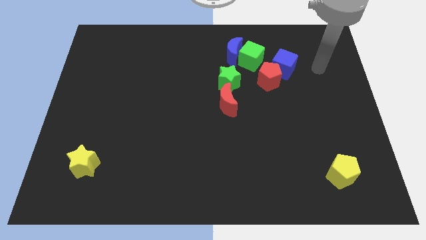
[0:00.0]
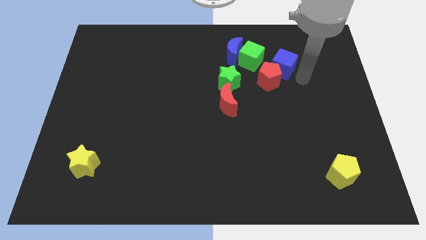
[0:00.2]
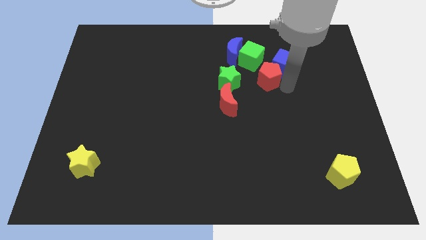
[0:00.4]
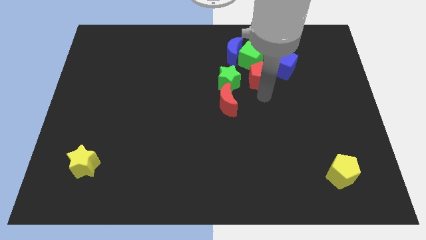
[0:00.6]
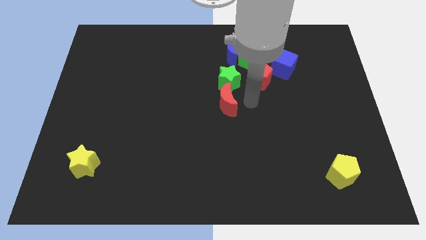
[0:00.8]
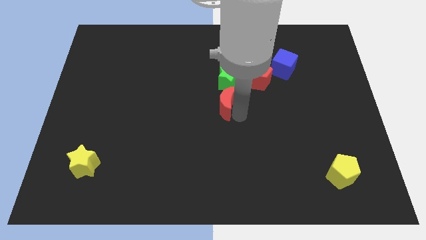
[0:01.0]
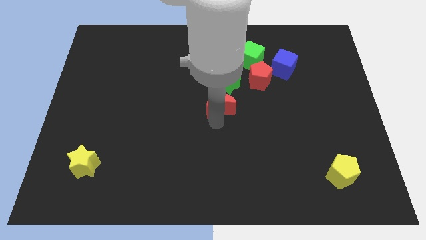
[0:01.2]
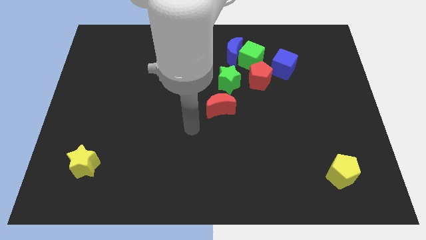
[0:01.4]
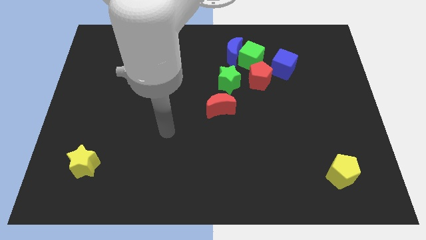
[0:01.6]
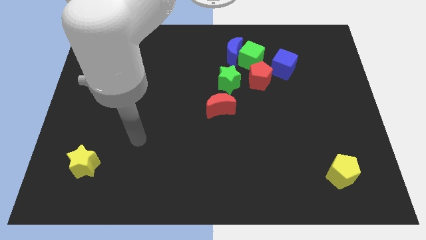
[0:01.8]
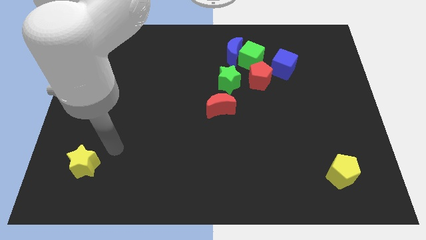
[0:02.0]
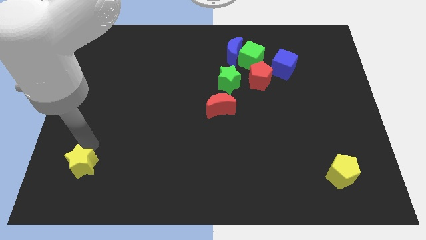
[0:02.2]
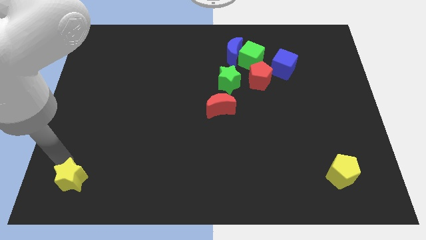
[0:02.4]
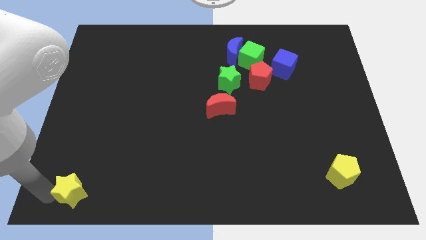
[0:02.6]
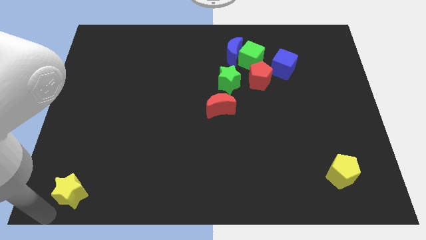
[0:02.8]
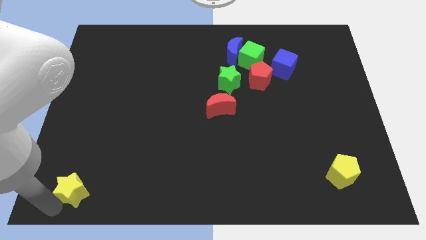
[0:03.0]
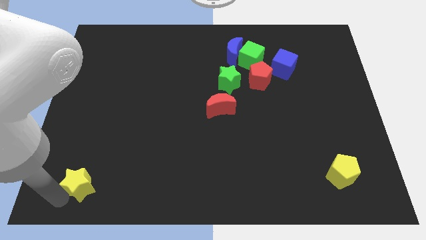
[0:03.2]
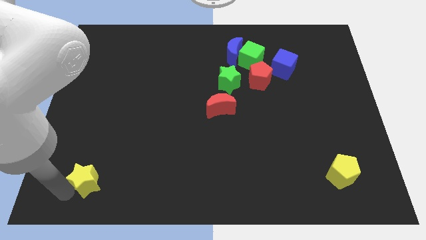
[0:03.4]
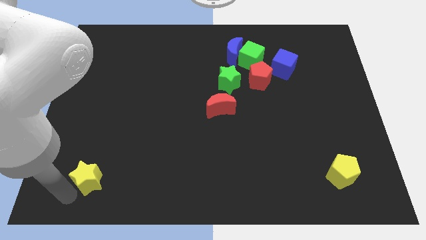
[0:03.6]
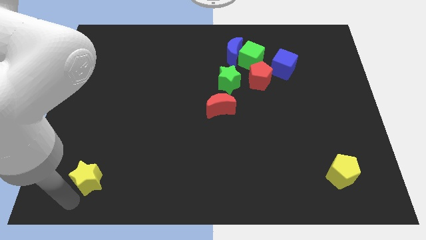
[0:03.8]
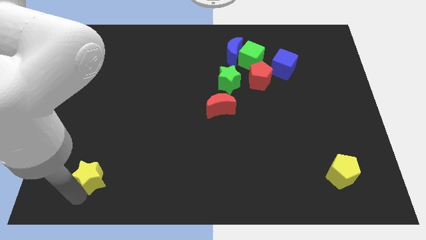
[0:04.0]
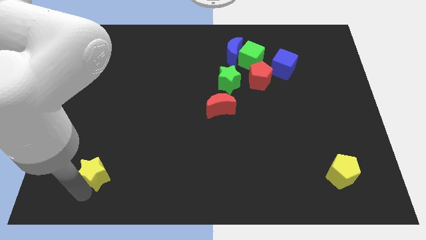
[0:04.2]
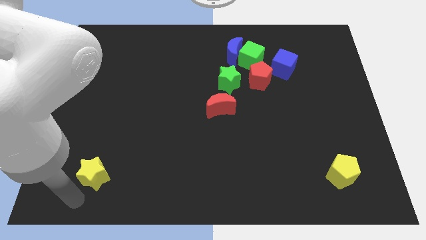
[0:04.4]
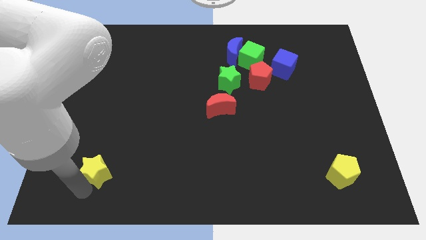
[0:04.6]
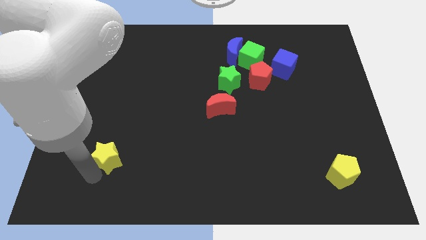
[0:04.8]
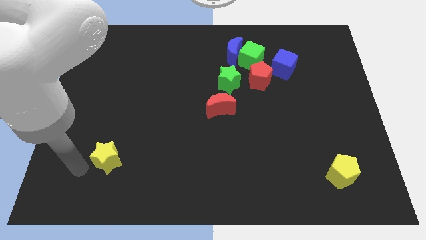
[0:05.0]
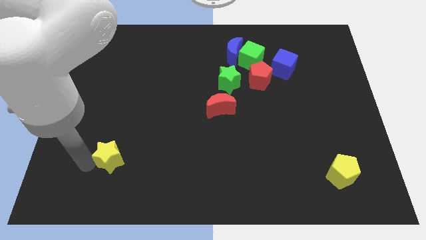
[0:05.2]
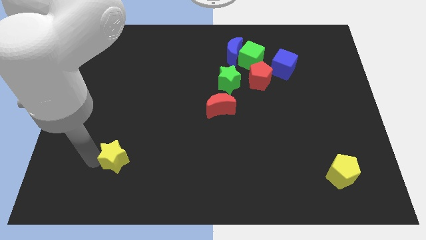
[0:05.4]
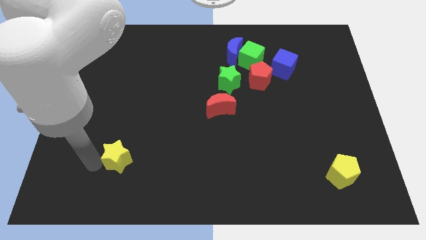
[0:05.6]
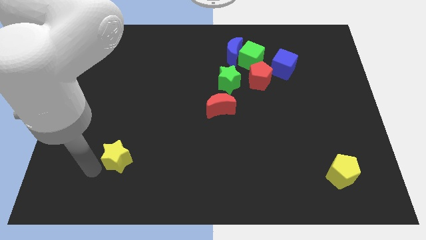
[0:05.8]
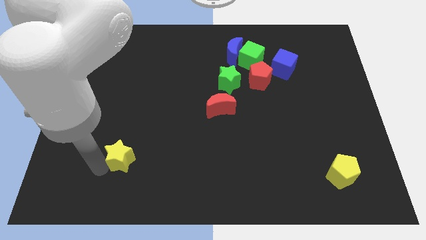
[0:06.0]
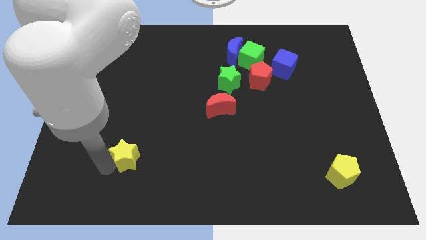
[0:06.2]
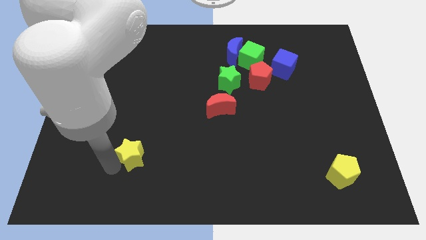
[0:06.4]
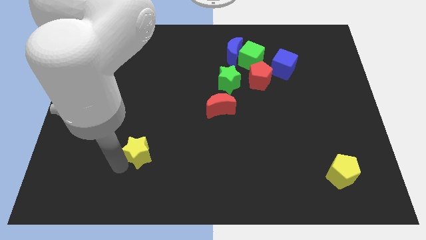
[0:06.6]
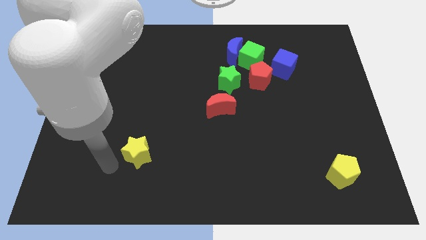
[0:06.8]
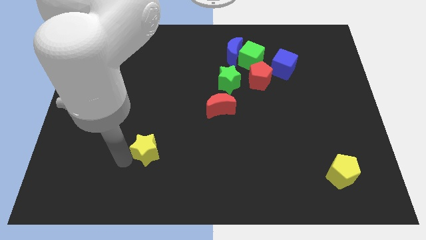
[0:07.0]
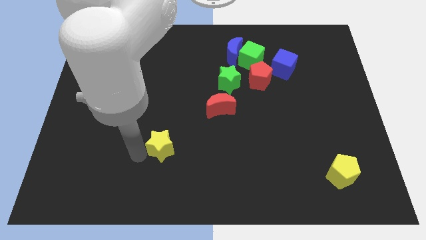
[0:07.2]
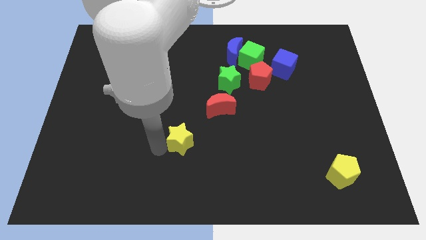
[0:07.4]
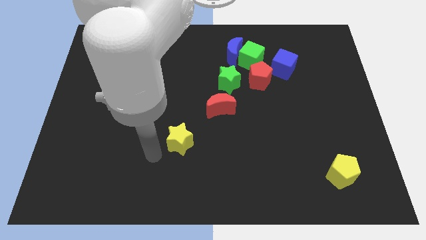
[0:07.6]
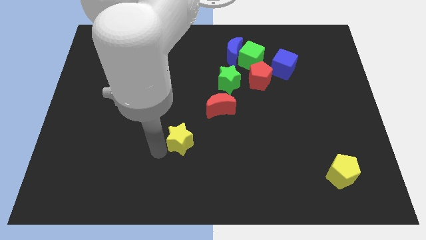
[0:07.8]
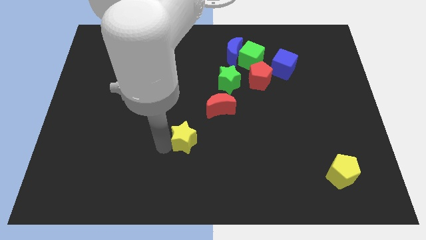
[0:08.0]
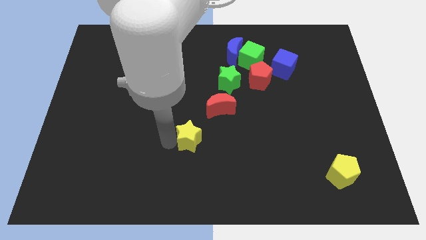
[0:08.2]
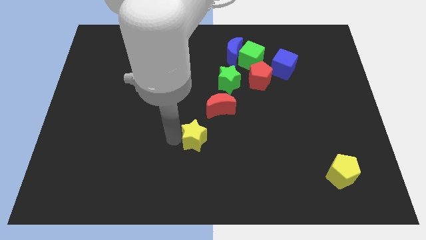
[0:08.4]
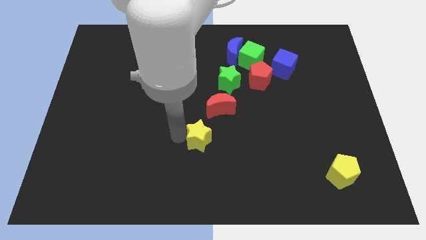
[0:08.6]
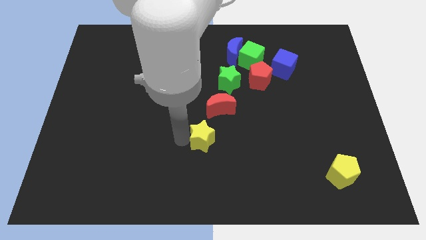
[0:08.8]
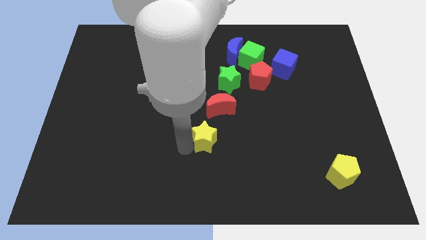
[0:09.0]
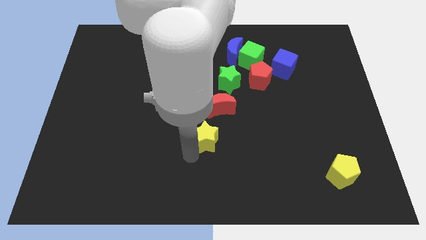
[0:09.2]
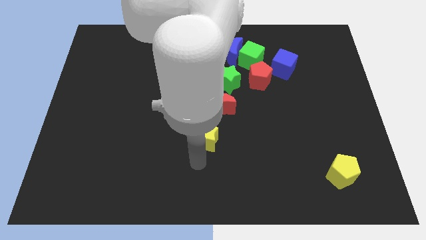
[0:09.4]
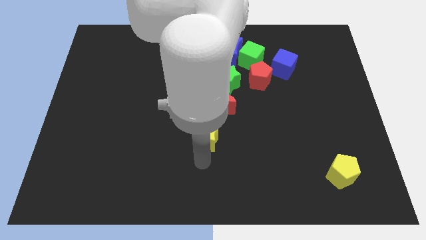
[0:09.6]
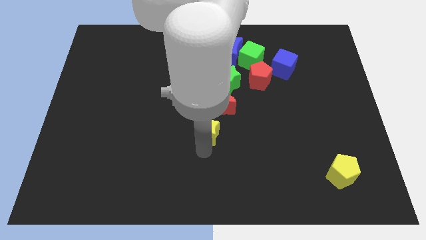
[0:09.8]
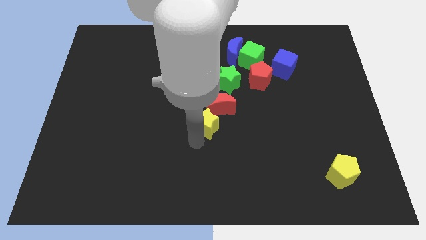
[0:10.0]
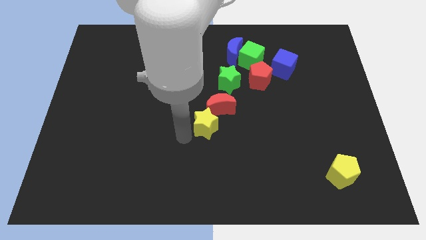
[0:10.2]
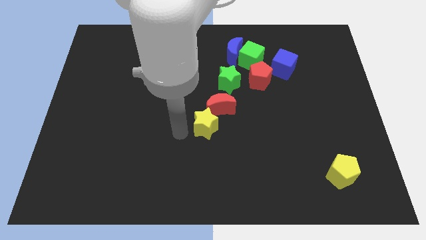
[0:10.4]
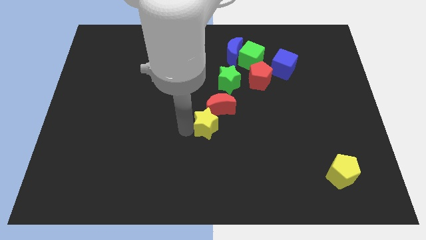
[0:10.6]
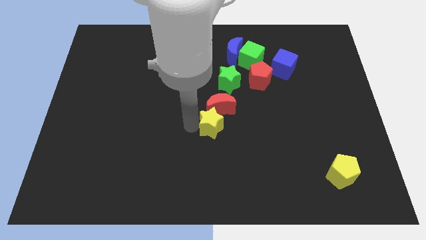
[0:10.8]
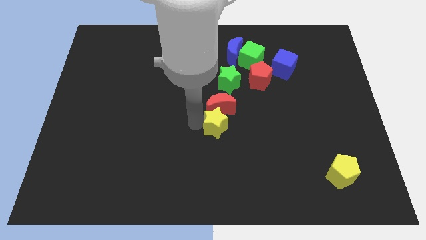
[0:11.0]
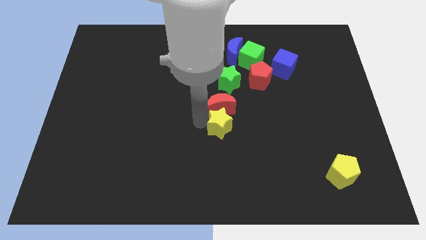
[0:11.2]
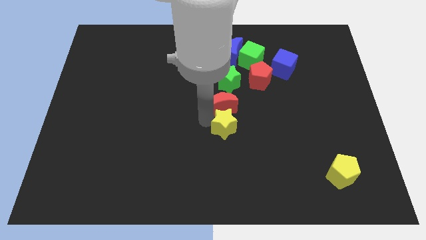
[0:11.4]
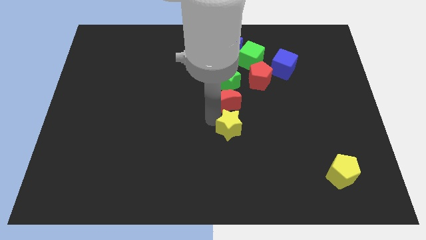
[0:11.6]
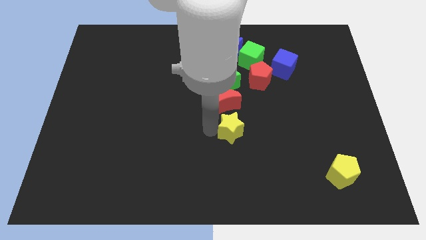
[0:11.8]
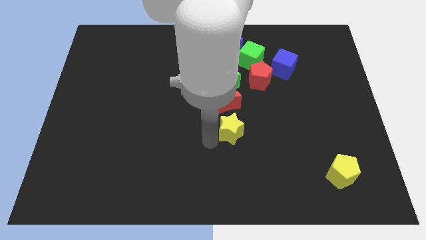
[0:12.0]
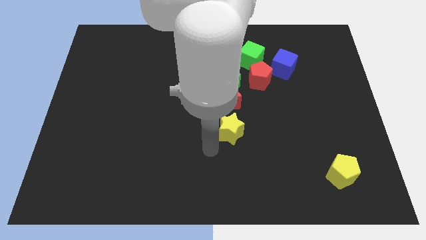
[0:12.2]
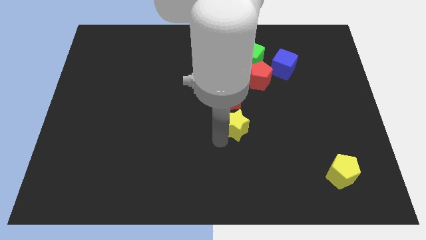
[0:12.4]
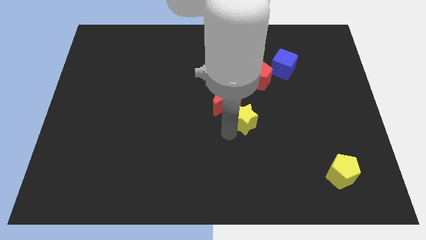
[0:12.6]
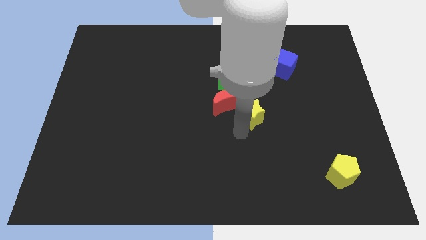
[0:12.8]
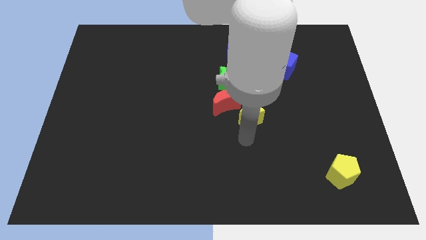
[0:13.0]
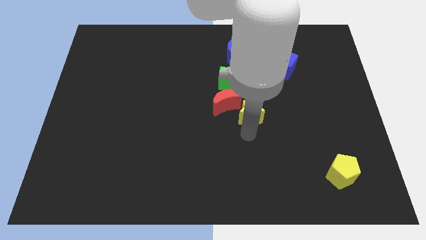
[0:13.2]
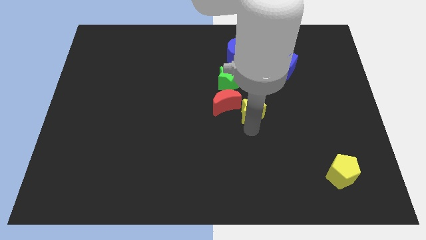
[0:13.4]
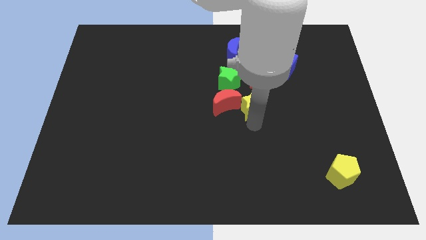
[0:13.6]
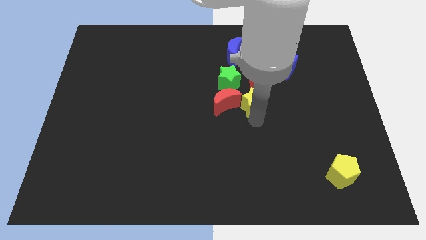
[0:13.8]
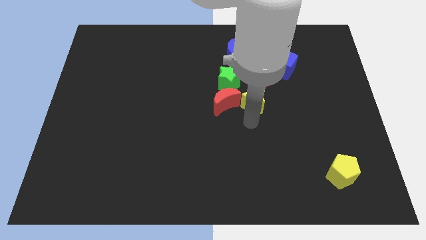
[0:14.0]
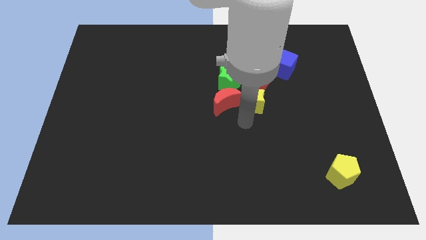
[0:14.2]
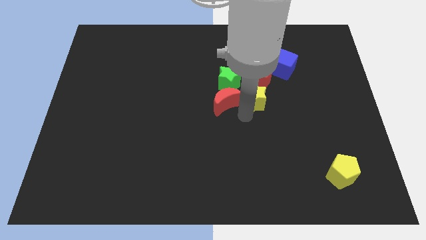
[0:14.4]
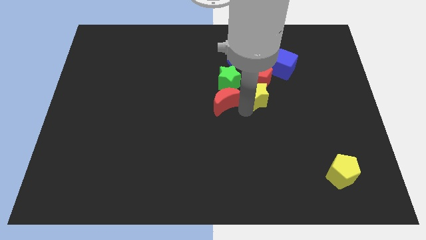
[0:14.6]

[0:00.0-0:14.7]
put the yellow star close to the red pentagon

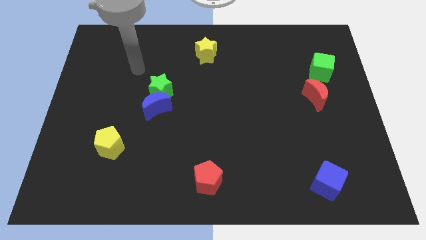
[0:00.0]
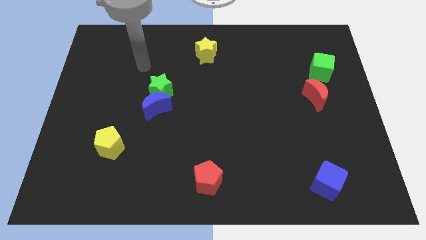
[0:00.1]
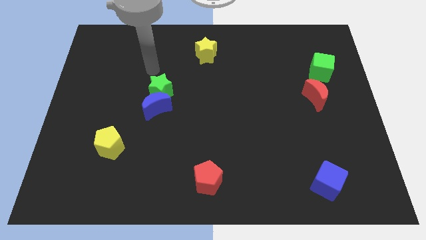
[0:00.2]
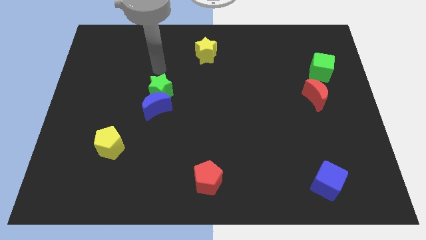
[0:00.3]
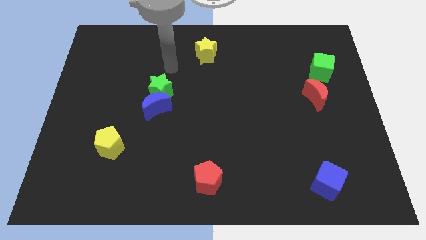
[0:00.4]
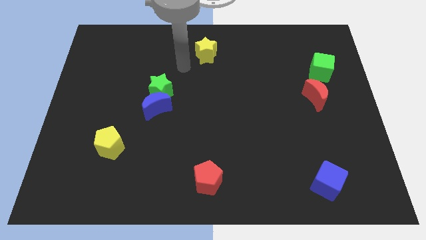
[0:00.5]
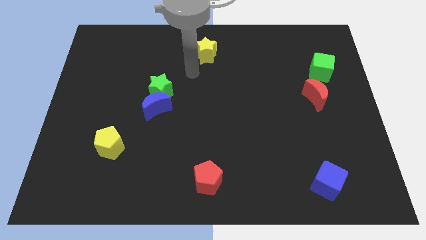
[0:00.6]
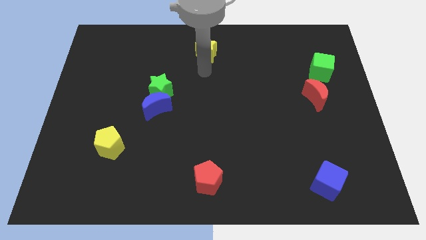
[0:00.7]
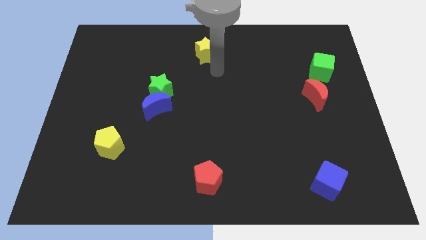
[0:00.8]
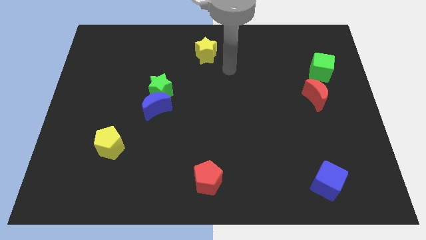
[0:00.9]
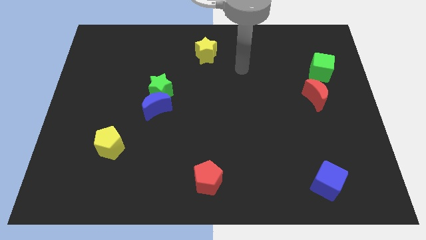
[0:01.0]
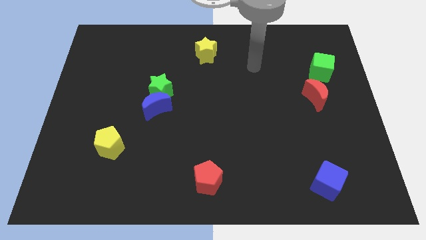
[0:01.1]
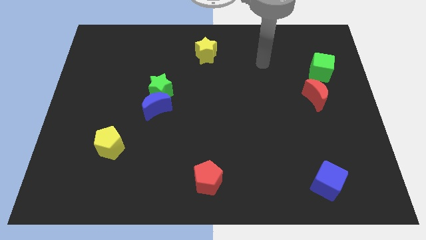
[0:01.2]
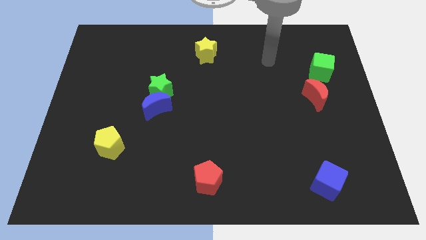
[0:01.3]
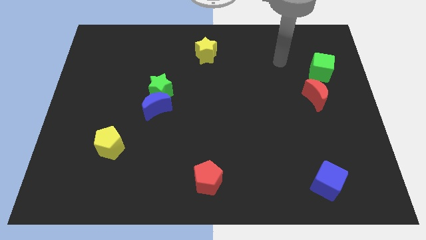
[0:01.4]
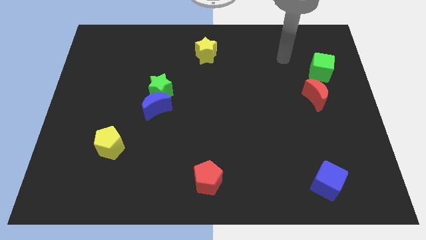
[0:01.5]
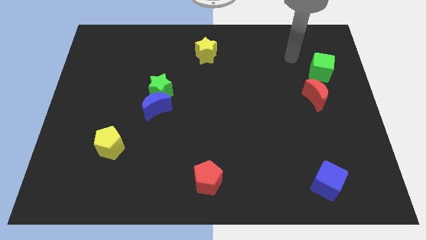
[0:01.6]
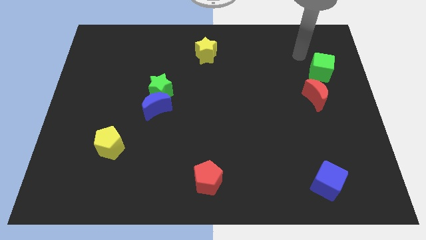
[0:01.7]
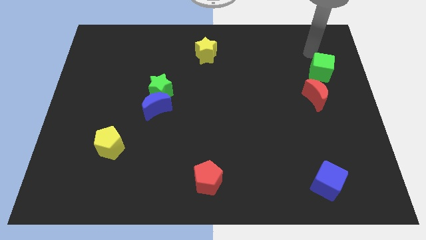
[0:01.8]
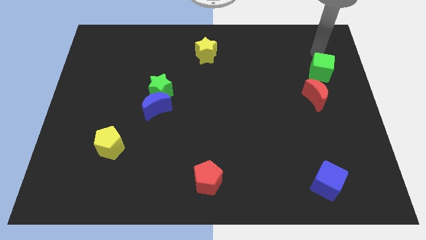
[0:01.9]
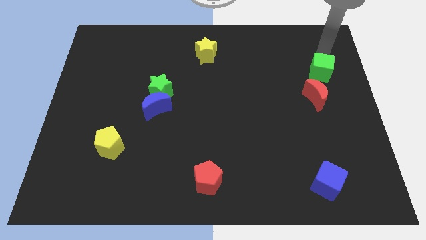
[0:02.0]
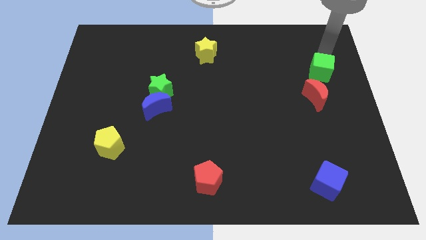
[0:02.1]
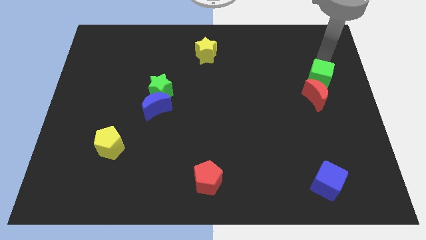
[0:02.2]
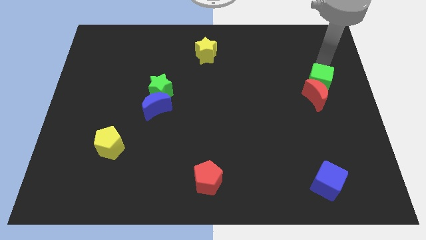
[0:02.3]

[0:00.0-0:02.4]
put the green cube close to the red moon
